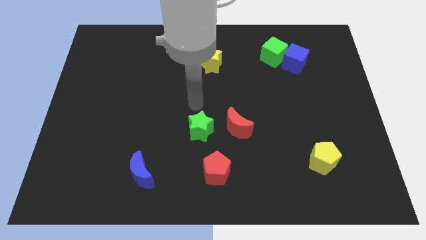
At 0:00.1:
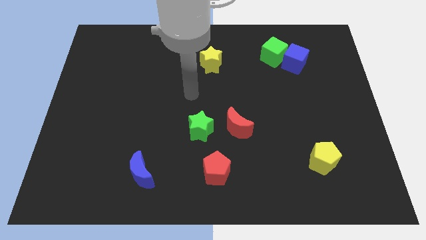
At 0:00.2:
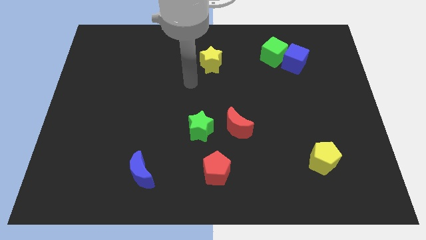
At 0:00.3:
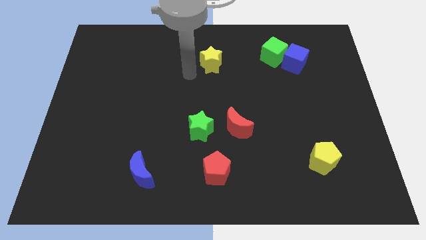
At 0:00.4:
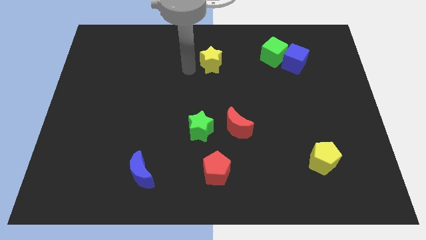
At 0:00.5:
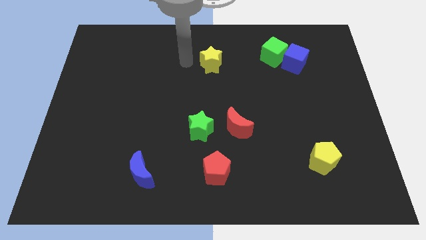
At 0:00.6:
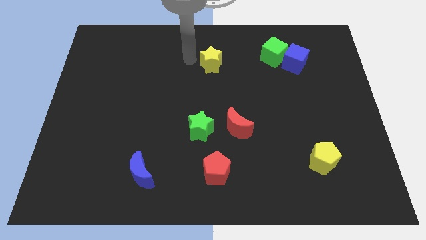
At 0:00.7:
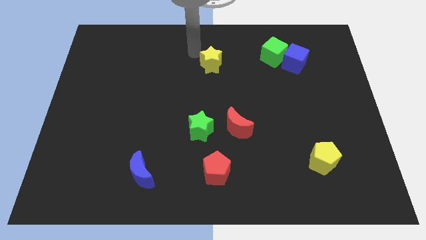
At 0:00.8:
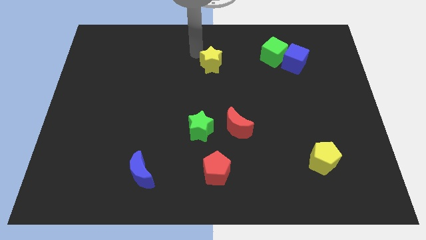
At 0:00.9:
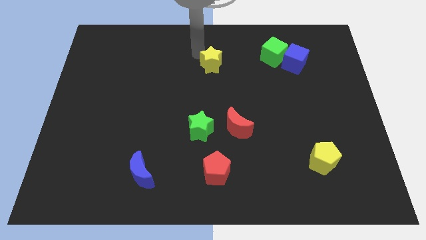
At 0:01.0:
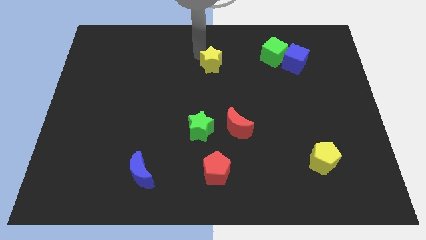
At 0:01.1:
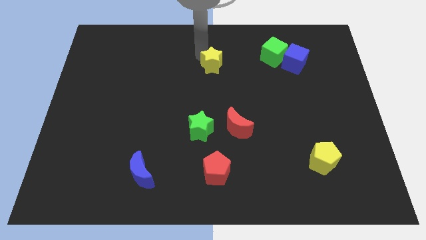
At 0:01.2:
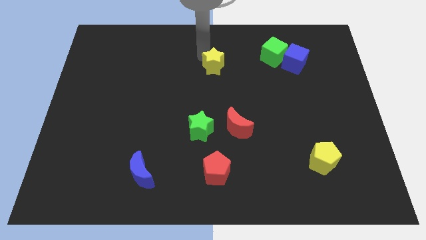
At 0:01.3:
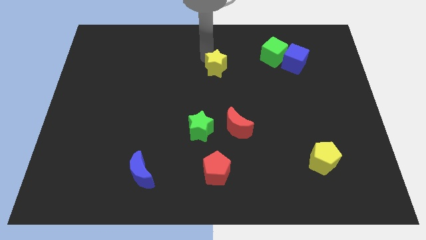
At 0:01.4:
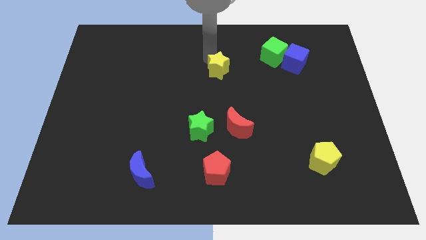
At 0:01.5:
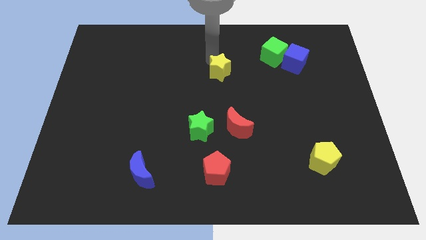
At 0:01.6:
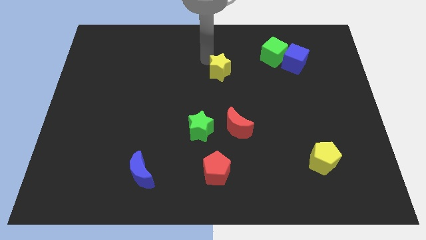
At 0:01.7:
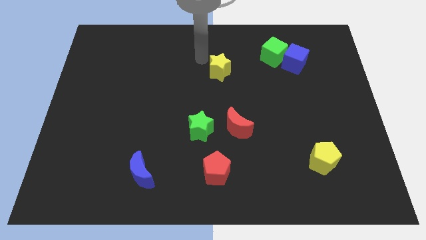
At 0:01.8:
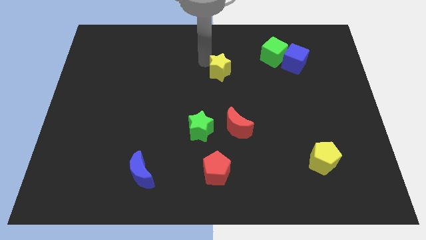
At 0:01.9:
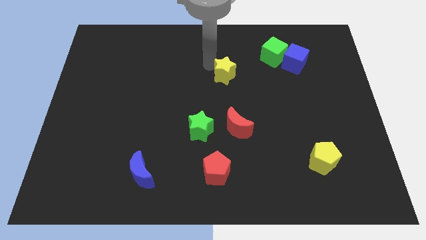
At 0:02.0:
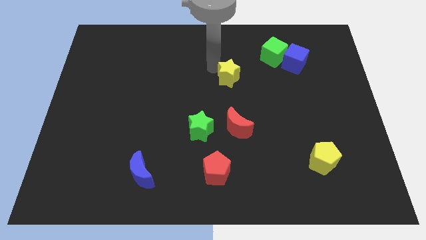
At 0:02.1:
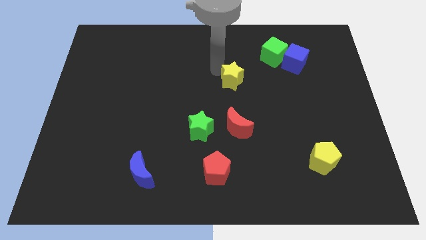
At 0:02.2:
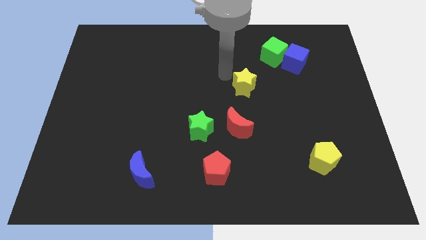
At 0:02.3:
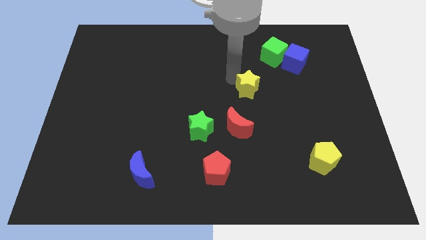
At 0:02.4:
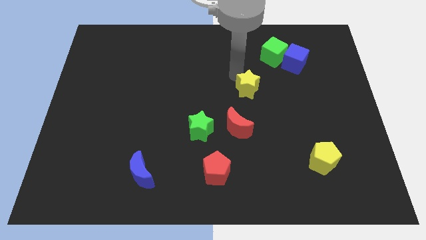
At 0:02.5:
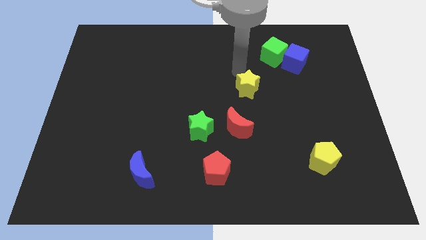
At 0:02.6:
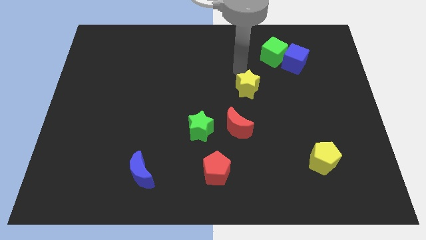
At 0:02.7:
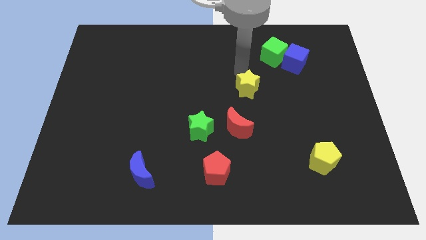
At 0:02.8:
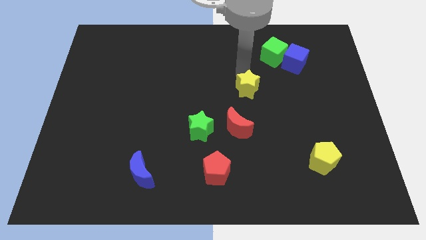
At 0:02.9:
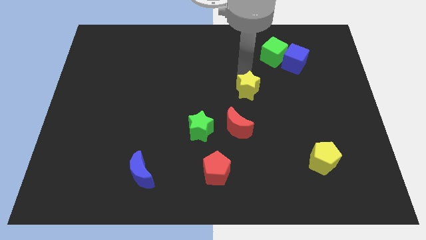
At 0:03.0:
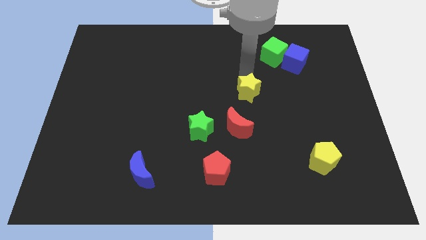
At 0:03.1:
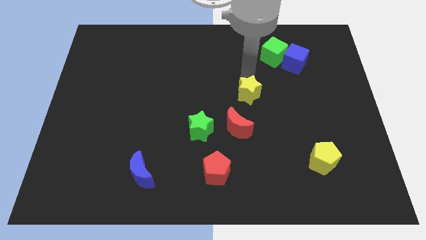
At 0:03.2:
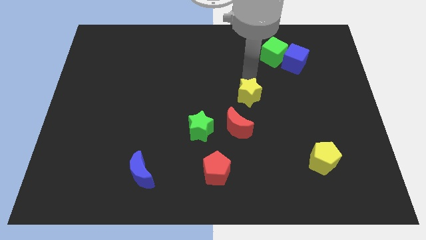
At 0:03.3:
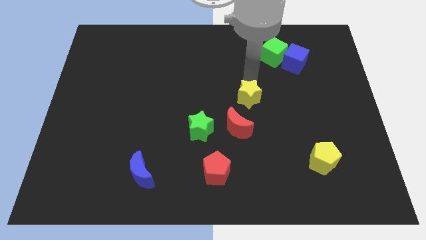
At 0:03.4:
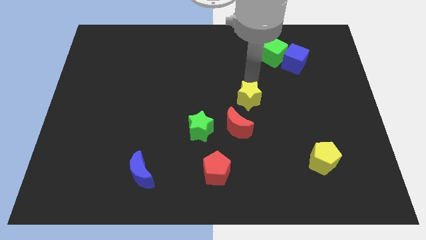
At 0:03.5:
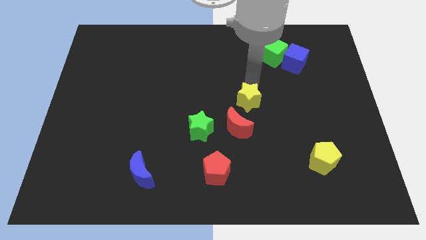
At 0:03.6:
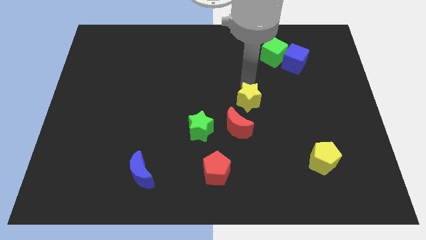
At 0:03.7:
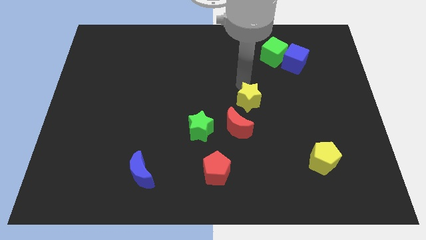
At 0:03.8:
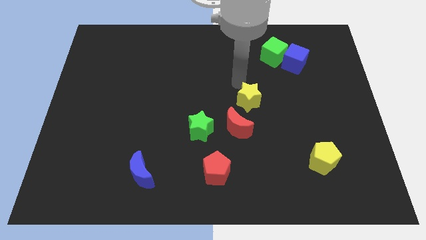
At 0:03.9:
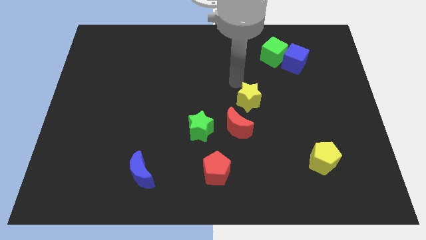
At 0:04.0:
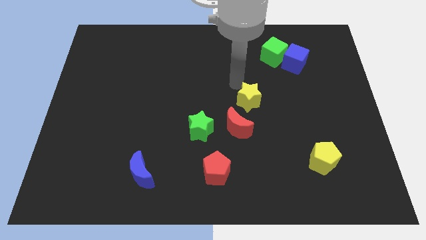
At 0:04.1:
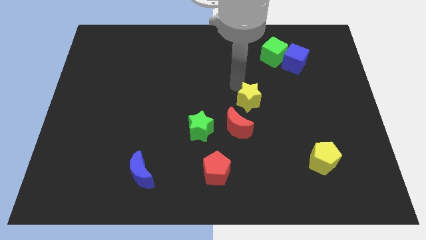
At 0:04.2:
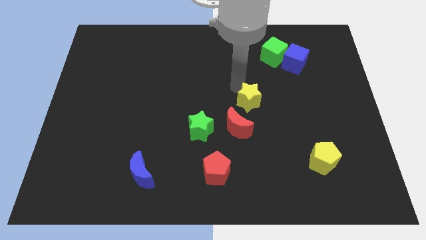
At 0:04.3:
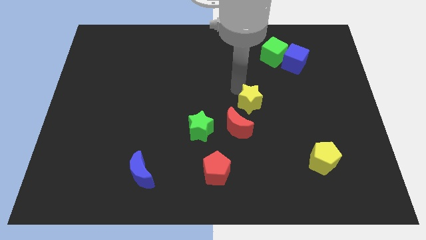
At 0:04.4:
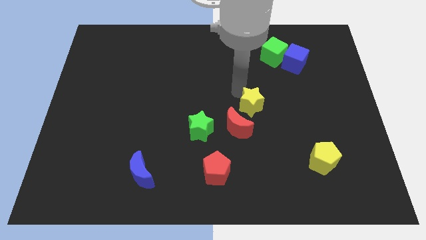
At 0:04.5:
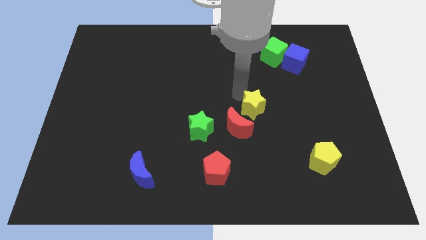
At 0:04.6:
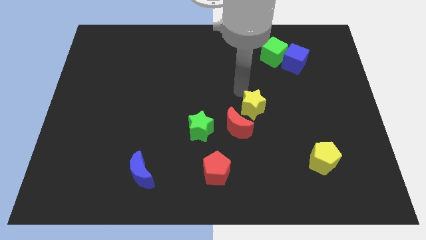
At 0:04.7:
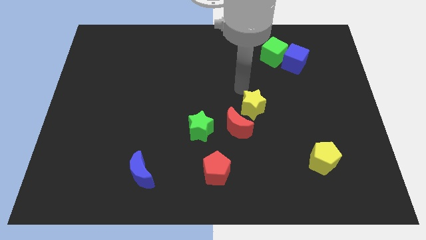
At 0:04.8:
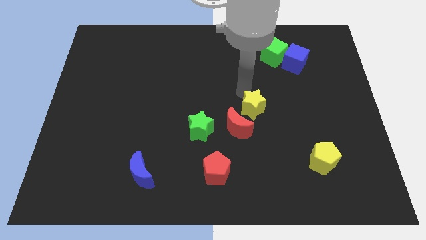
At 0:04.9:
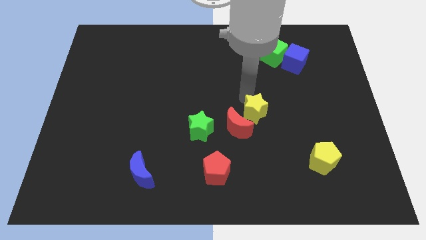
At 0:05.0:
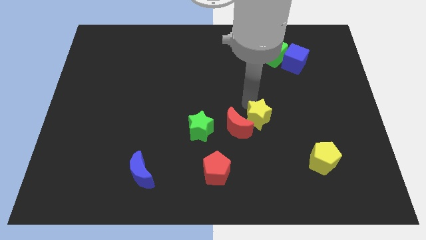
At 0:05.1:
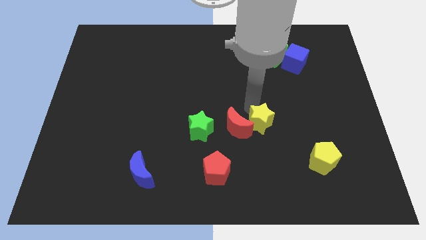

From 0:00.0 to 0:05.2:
push the yellow star to the bottom right side of the red moon

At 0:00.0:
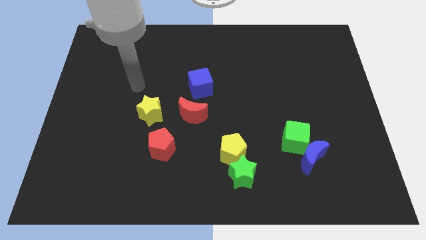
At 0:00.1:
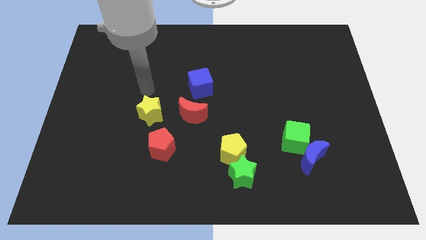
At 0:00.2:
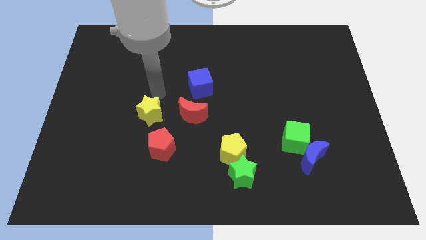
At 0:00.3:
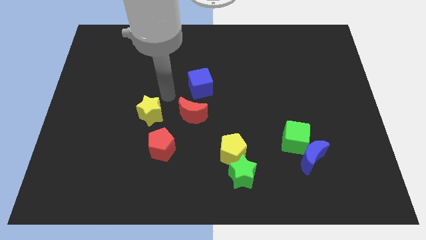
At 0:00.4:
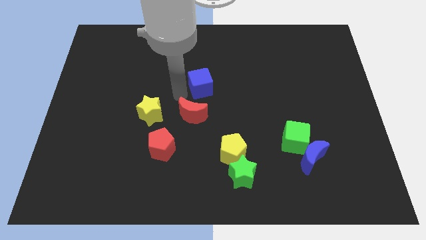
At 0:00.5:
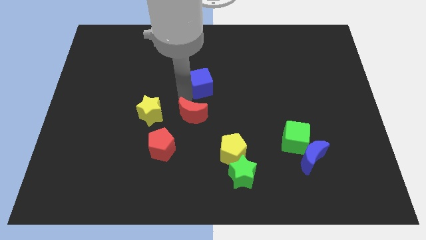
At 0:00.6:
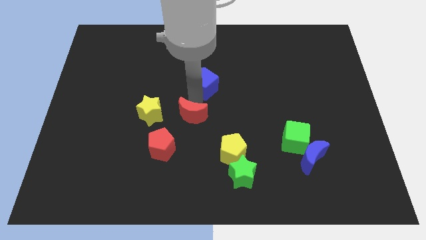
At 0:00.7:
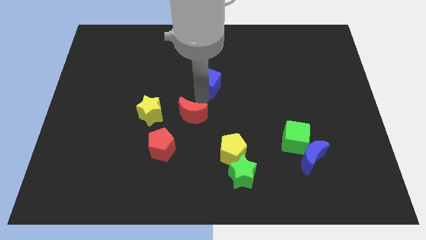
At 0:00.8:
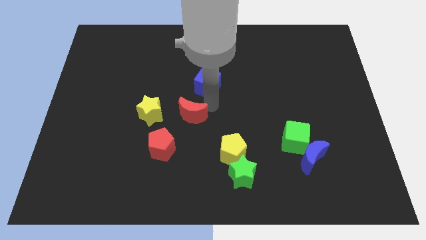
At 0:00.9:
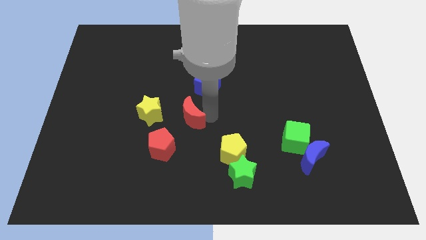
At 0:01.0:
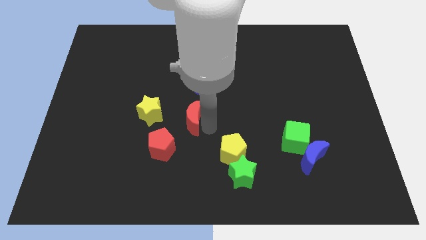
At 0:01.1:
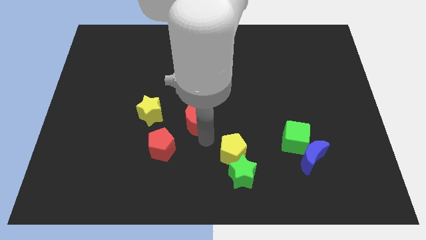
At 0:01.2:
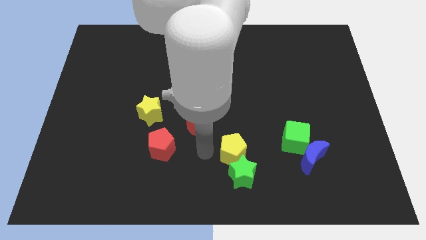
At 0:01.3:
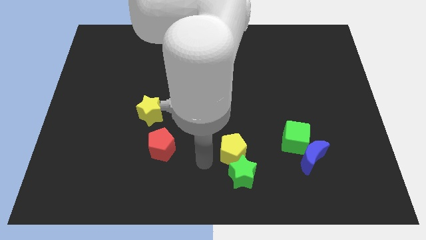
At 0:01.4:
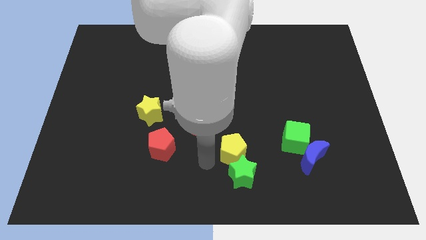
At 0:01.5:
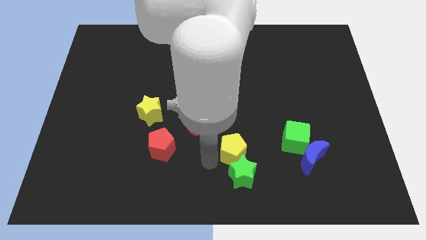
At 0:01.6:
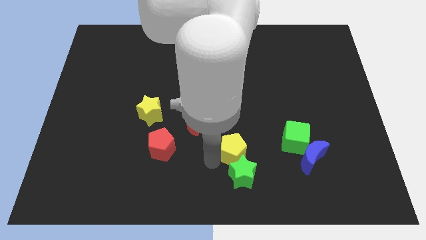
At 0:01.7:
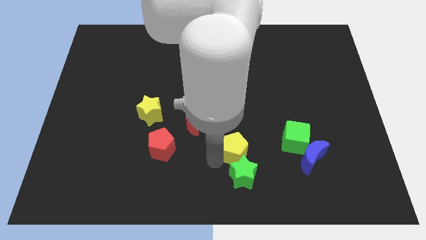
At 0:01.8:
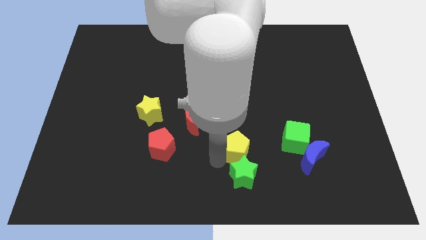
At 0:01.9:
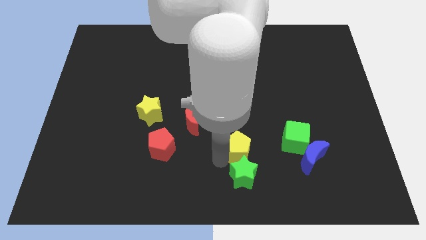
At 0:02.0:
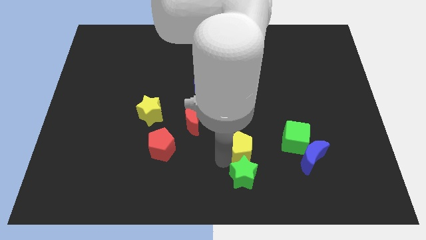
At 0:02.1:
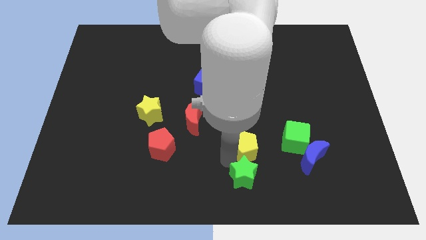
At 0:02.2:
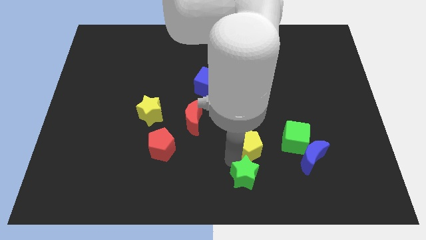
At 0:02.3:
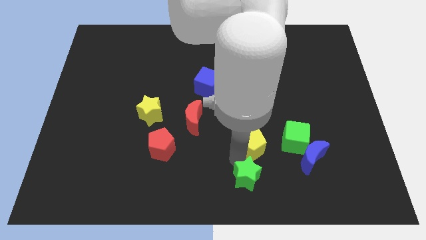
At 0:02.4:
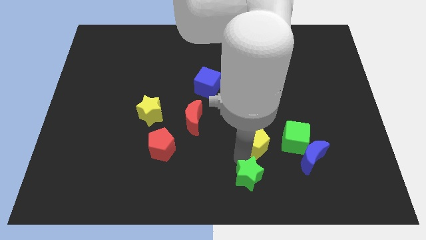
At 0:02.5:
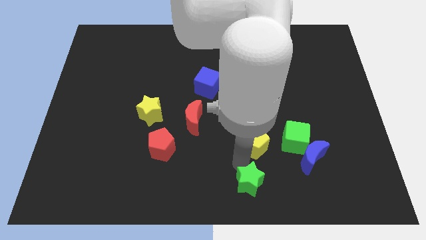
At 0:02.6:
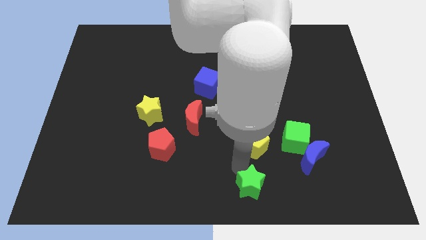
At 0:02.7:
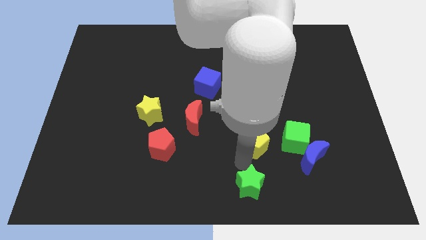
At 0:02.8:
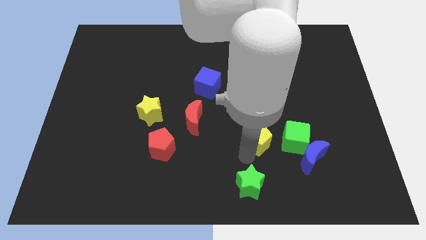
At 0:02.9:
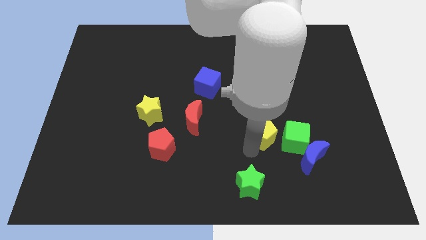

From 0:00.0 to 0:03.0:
move the yellow pentagon diagonally up and to the left of the green cube
